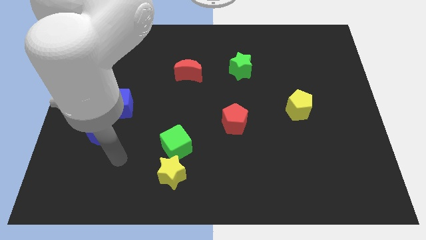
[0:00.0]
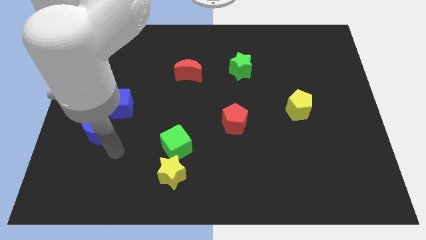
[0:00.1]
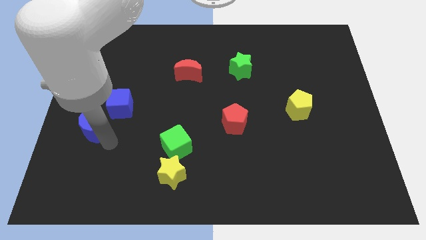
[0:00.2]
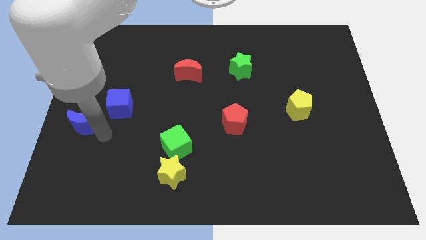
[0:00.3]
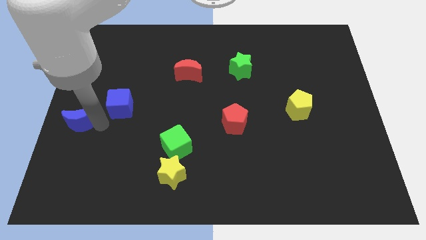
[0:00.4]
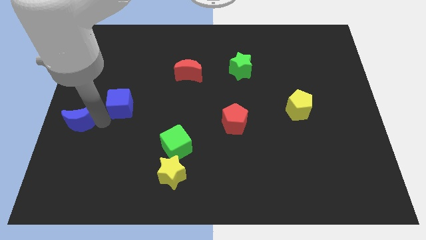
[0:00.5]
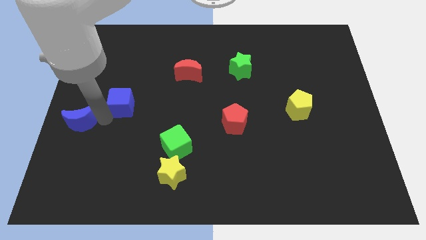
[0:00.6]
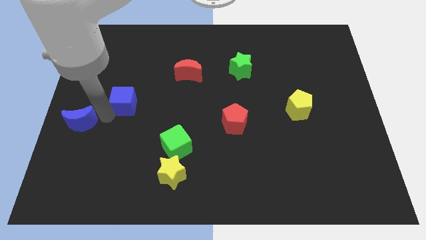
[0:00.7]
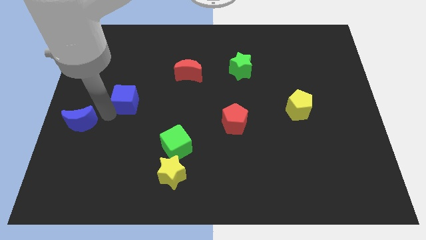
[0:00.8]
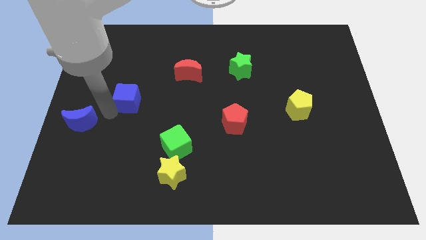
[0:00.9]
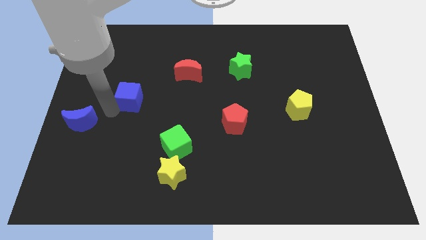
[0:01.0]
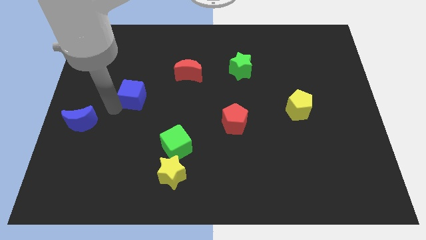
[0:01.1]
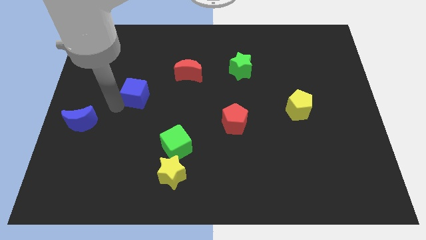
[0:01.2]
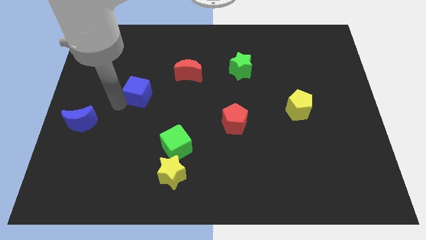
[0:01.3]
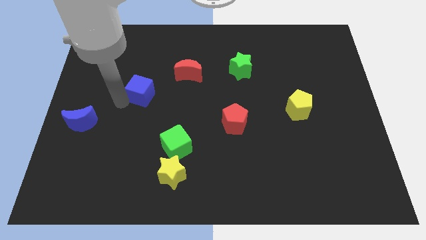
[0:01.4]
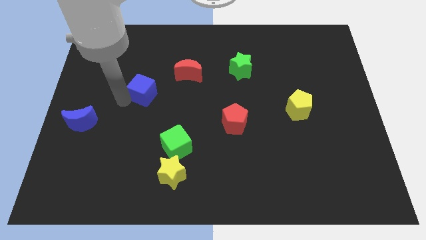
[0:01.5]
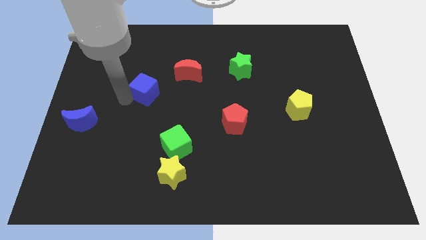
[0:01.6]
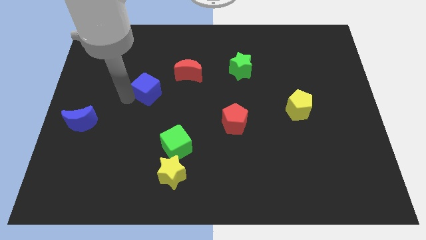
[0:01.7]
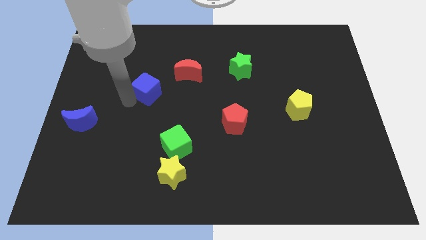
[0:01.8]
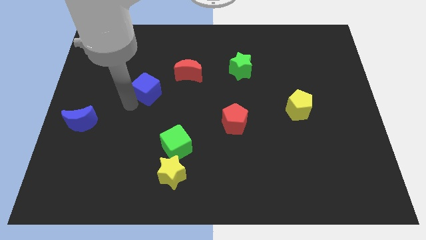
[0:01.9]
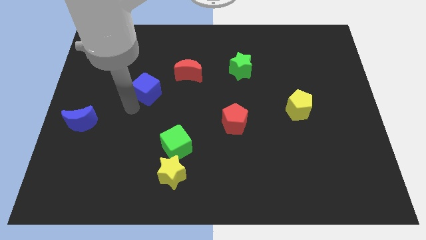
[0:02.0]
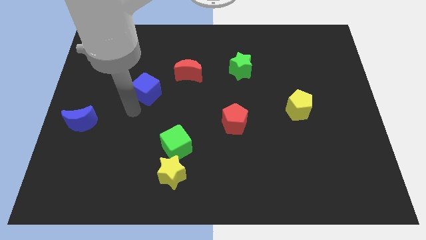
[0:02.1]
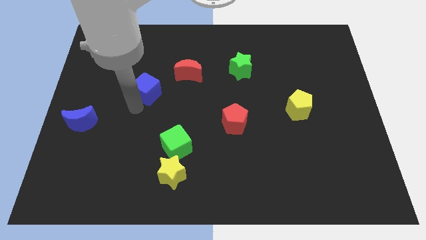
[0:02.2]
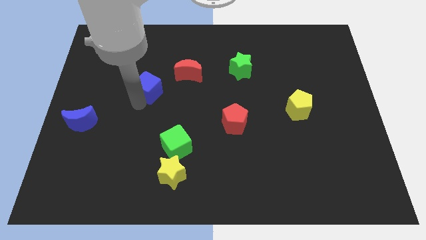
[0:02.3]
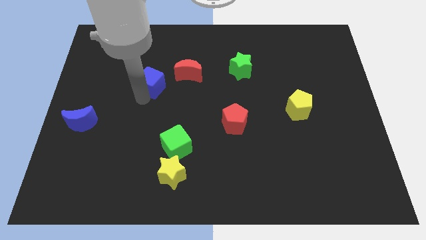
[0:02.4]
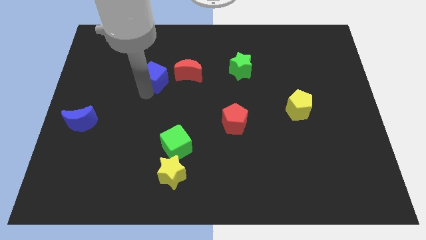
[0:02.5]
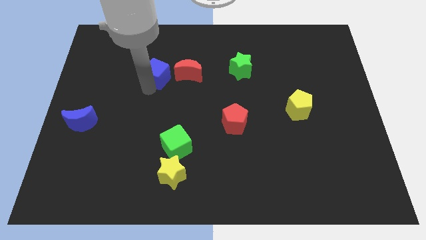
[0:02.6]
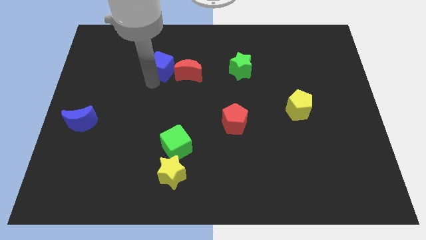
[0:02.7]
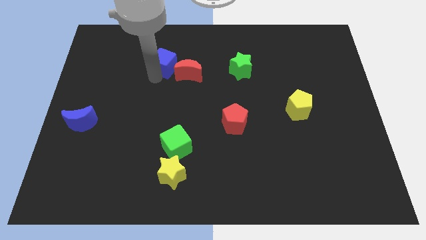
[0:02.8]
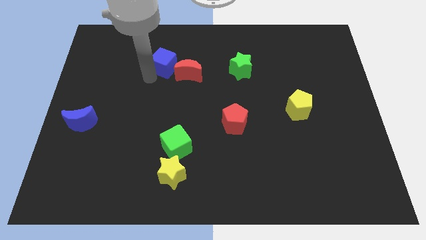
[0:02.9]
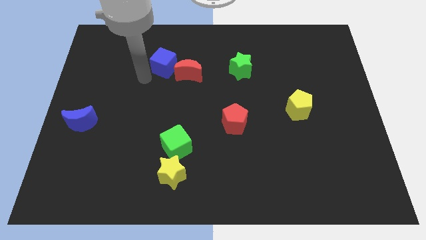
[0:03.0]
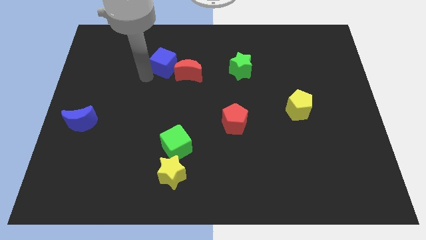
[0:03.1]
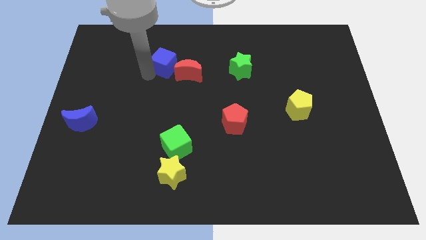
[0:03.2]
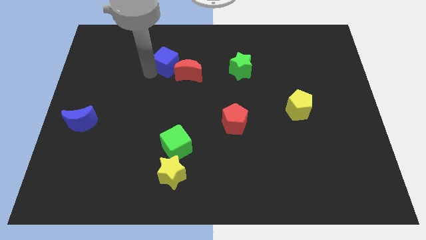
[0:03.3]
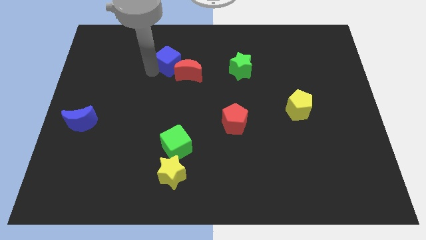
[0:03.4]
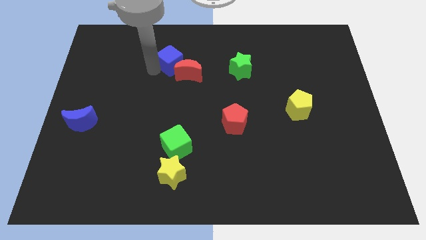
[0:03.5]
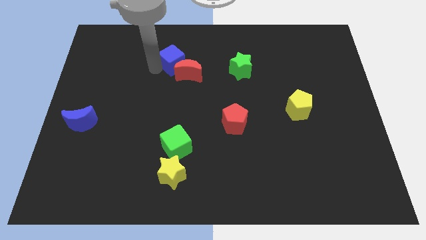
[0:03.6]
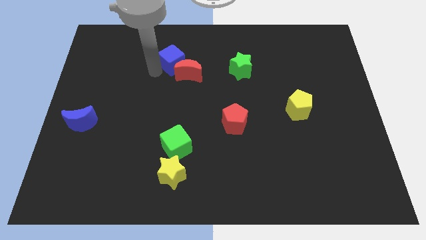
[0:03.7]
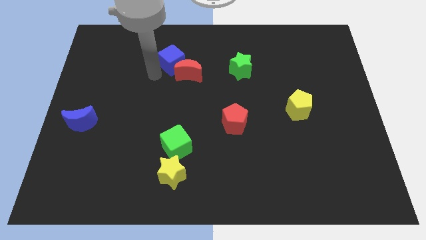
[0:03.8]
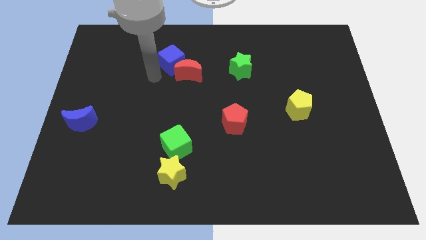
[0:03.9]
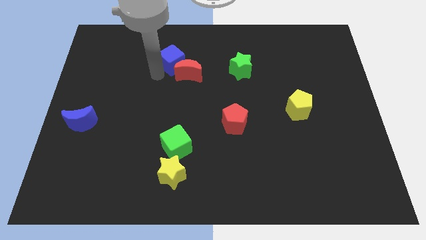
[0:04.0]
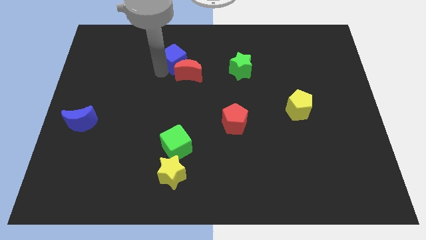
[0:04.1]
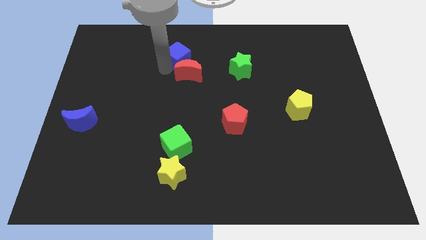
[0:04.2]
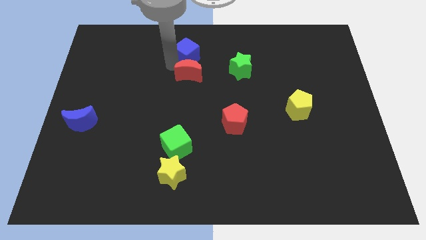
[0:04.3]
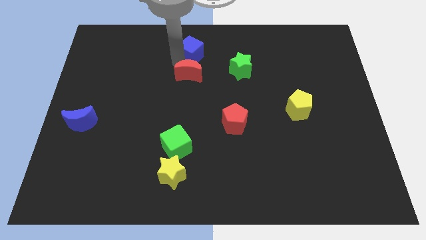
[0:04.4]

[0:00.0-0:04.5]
move the blue cube to the top side

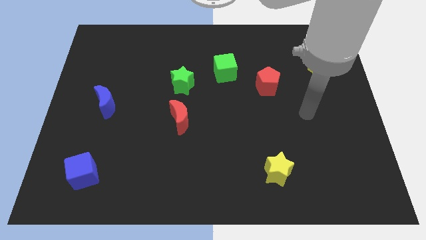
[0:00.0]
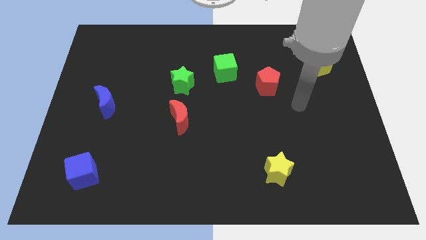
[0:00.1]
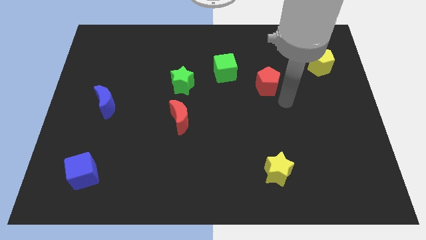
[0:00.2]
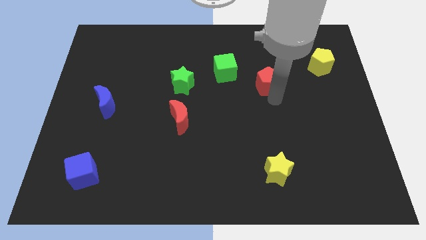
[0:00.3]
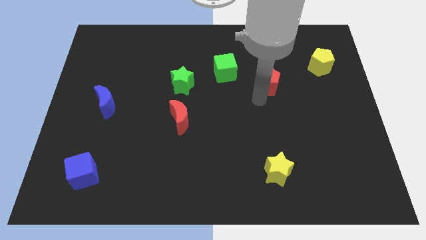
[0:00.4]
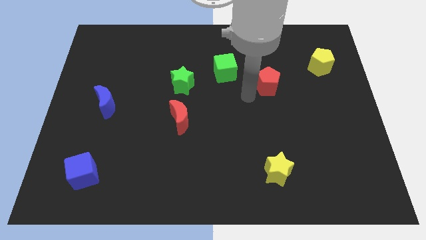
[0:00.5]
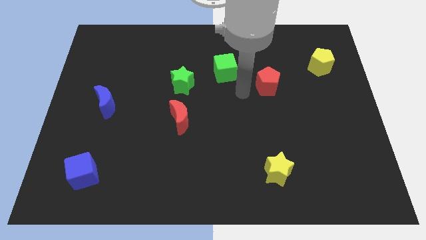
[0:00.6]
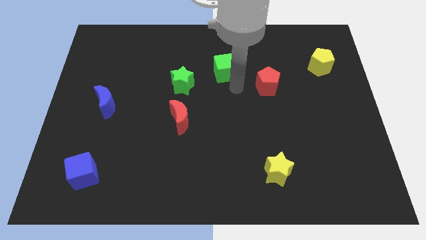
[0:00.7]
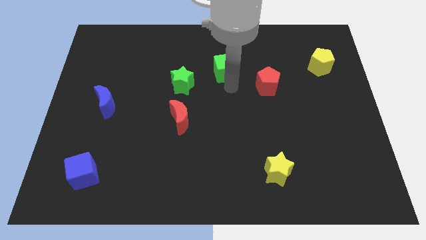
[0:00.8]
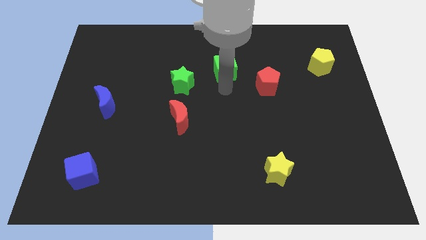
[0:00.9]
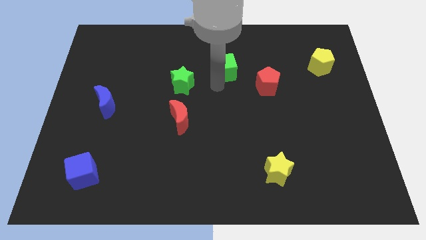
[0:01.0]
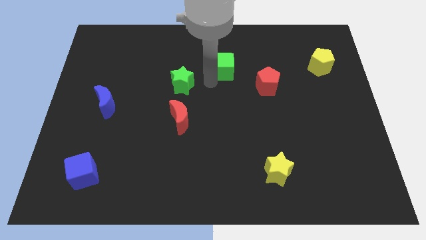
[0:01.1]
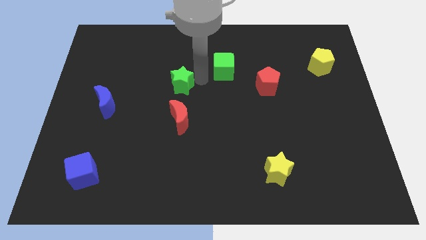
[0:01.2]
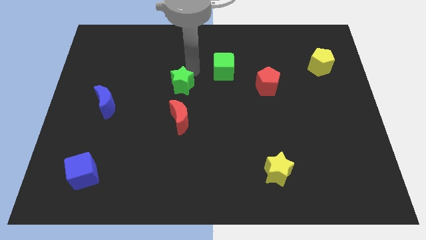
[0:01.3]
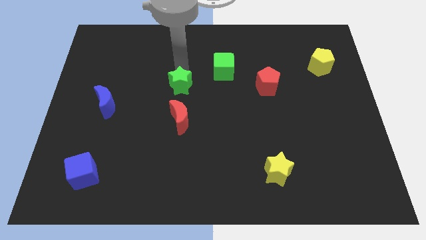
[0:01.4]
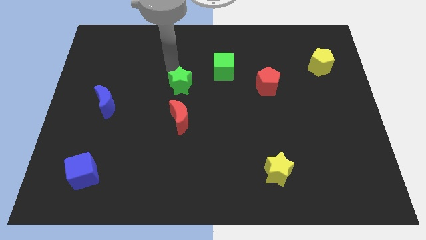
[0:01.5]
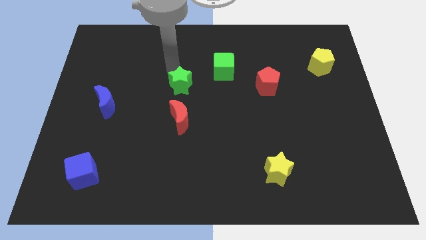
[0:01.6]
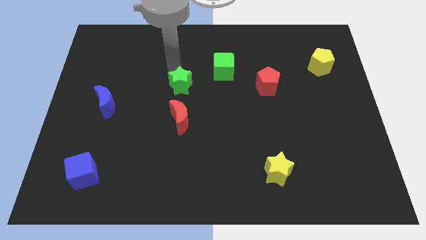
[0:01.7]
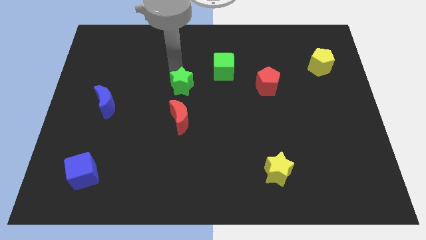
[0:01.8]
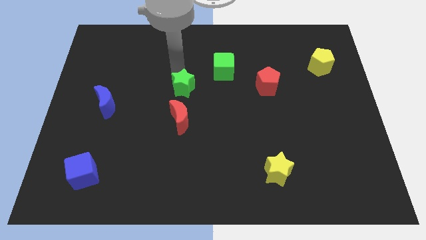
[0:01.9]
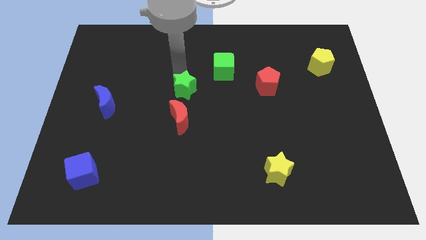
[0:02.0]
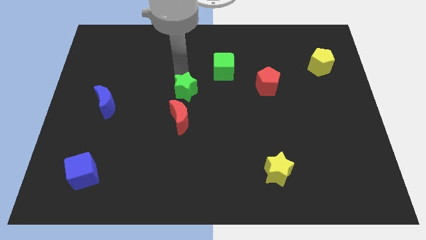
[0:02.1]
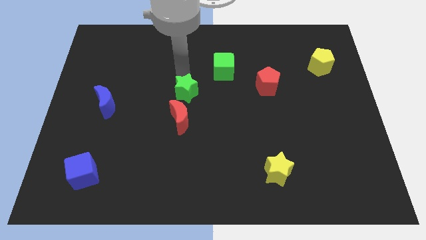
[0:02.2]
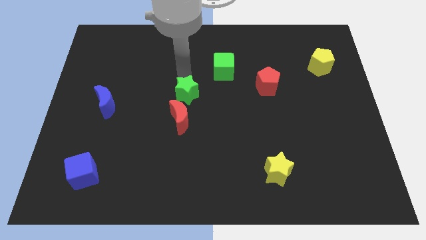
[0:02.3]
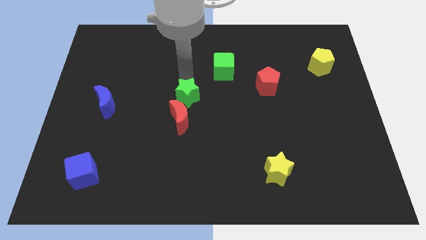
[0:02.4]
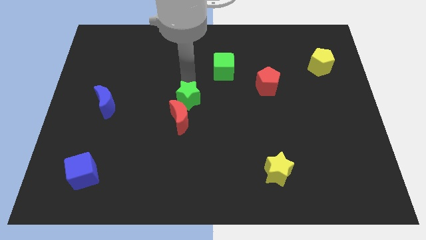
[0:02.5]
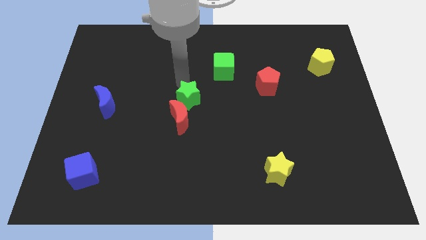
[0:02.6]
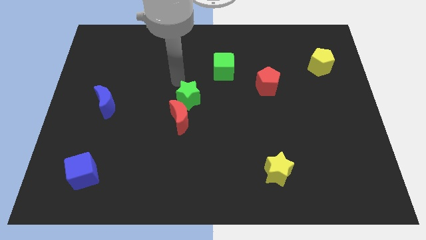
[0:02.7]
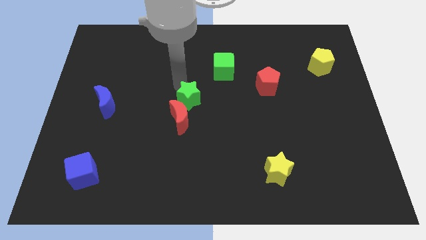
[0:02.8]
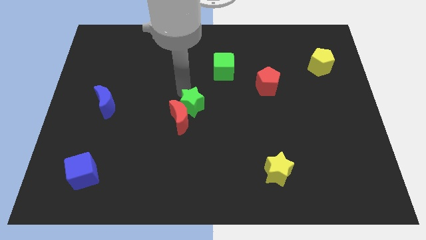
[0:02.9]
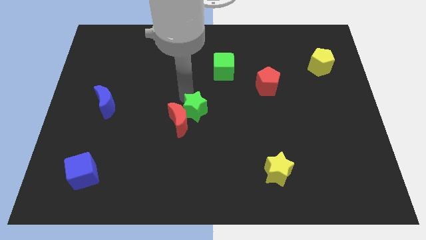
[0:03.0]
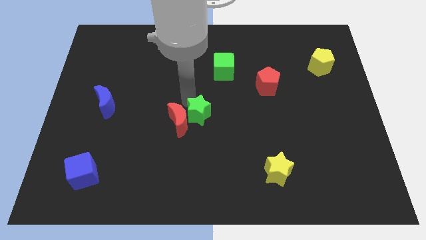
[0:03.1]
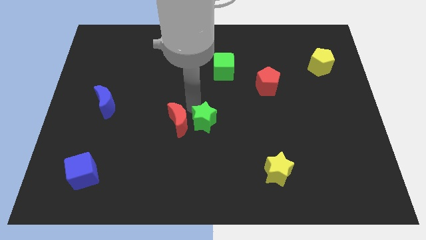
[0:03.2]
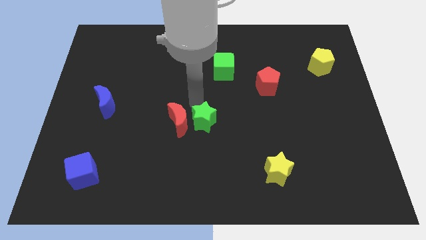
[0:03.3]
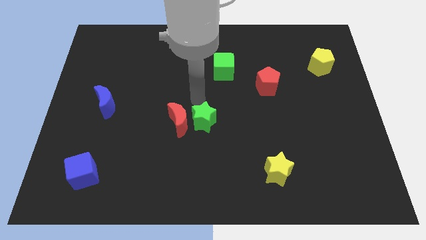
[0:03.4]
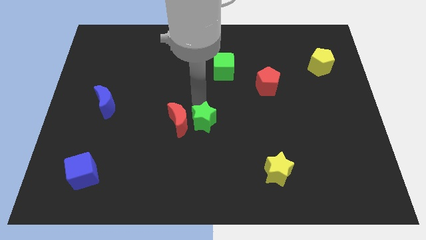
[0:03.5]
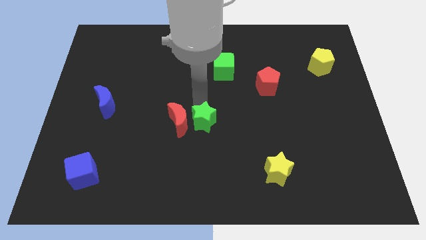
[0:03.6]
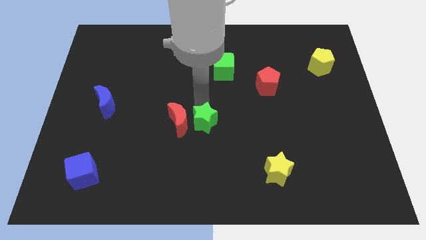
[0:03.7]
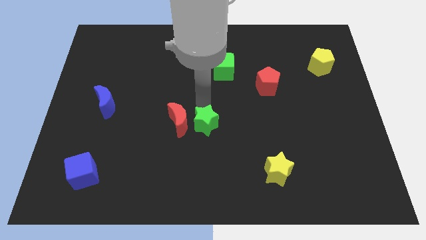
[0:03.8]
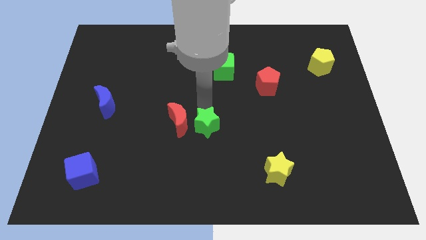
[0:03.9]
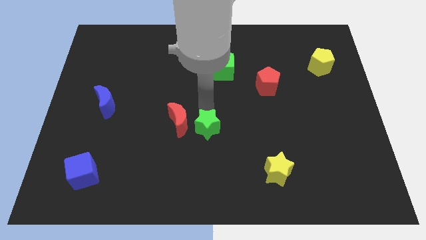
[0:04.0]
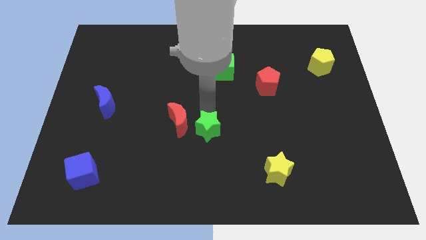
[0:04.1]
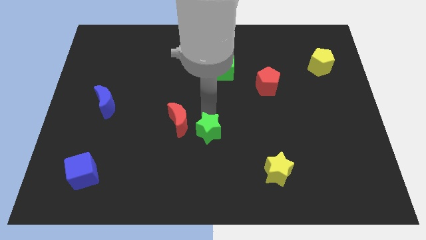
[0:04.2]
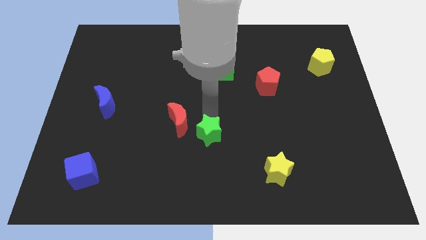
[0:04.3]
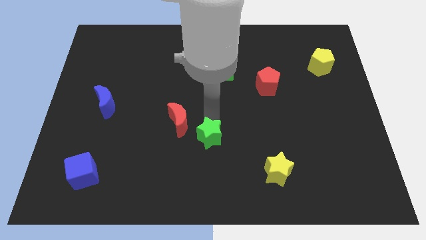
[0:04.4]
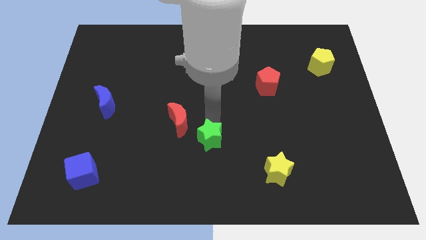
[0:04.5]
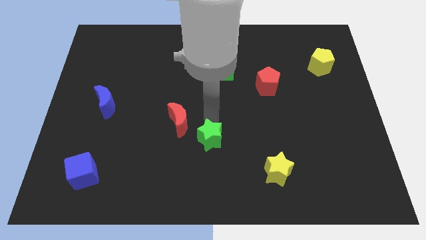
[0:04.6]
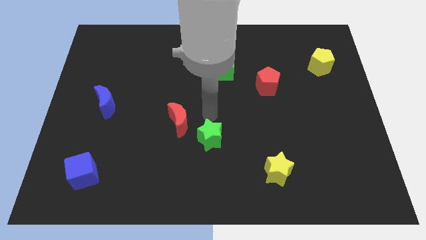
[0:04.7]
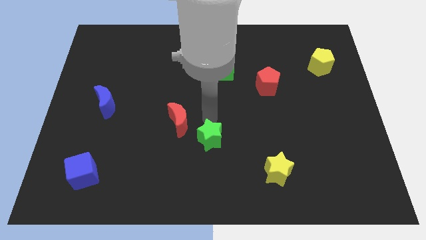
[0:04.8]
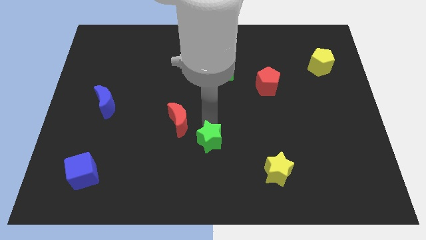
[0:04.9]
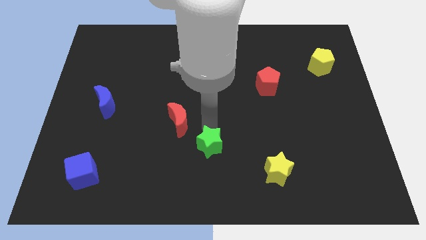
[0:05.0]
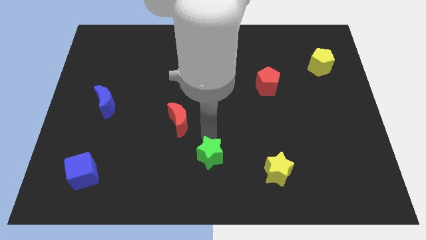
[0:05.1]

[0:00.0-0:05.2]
push the green star to the bottom side
